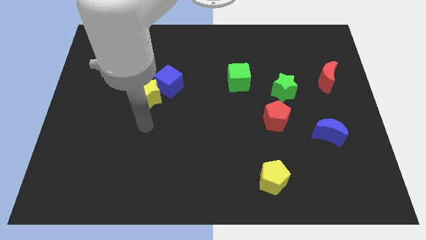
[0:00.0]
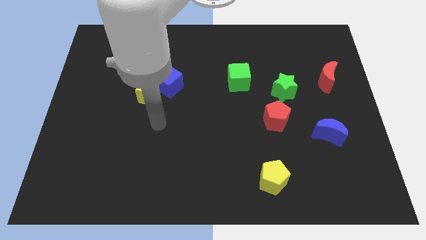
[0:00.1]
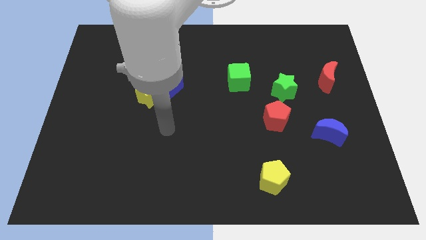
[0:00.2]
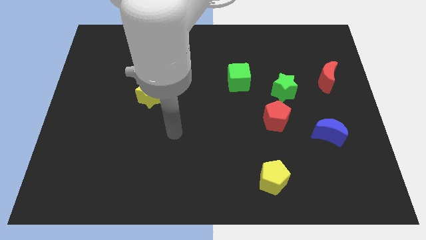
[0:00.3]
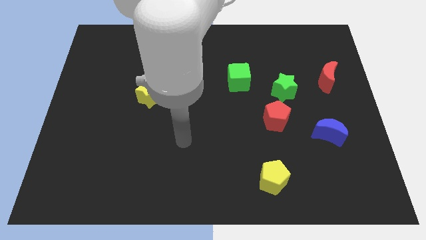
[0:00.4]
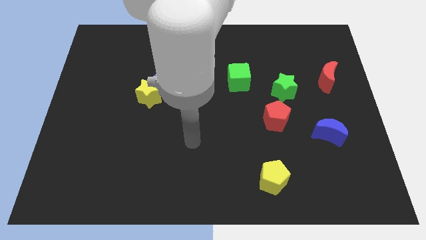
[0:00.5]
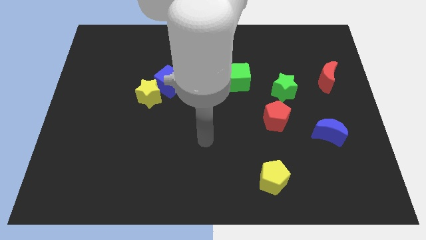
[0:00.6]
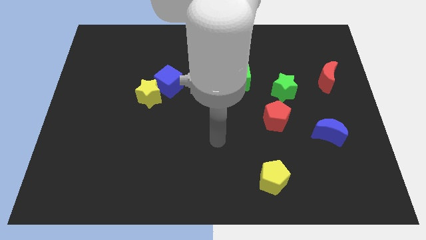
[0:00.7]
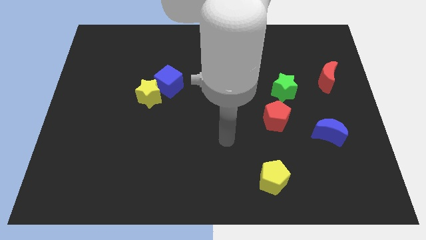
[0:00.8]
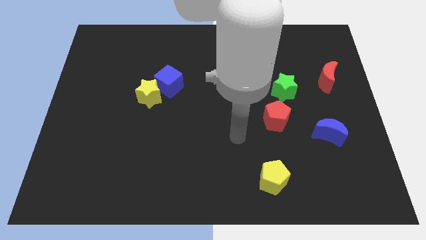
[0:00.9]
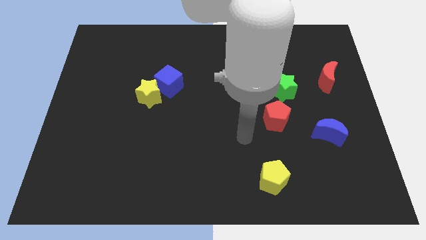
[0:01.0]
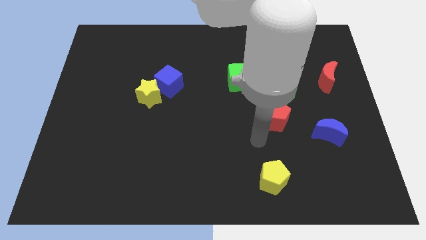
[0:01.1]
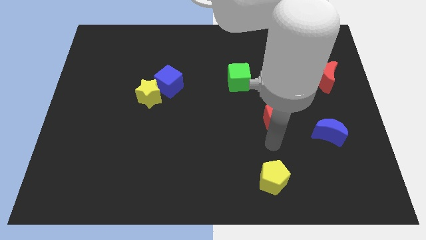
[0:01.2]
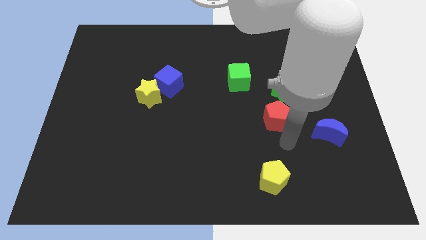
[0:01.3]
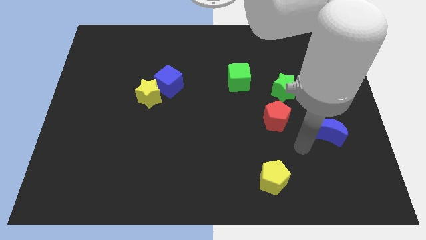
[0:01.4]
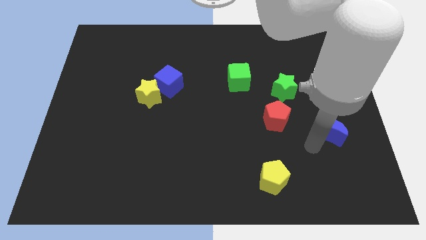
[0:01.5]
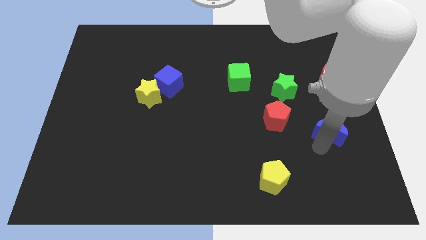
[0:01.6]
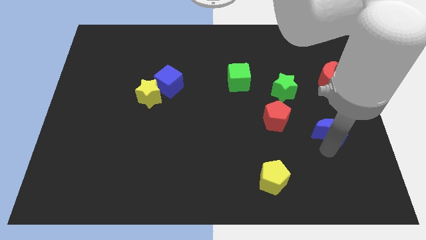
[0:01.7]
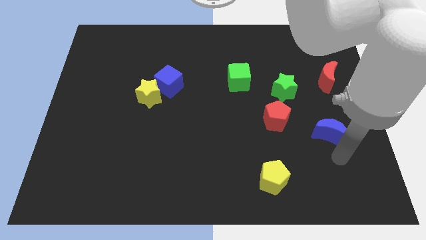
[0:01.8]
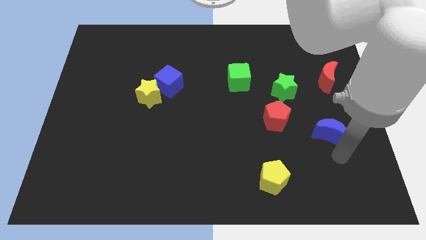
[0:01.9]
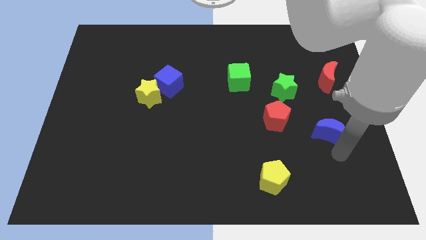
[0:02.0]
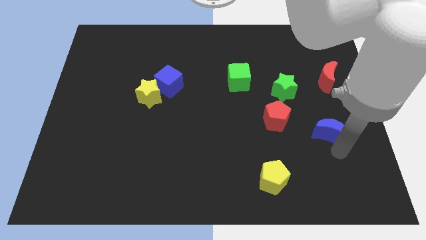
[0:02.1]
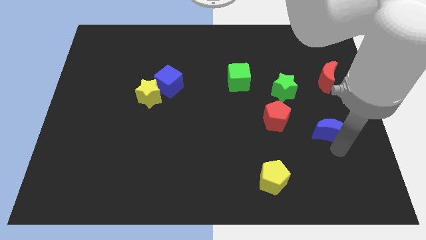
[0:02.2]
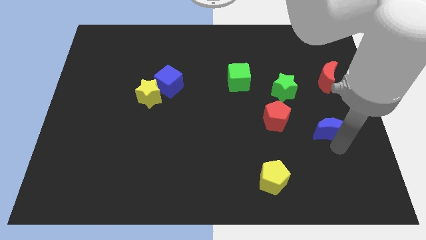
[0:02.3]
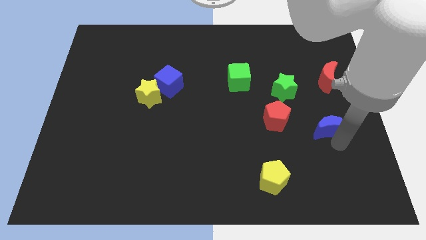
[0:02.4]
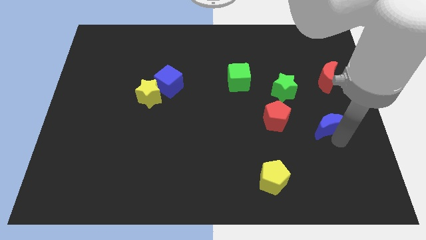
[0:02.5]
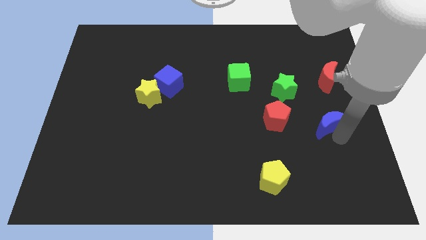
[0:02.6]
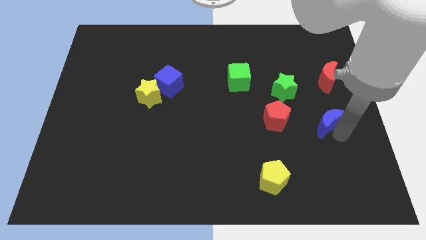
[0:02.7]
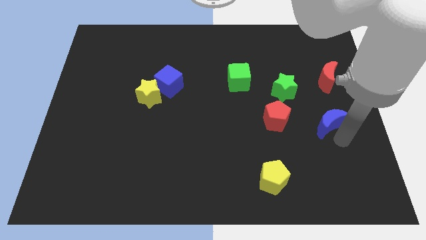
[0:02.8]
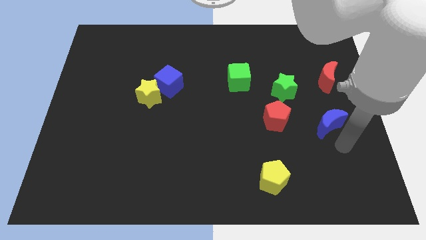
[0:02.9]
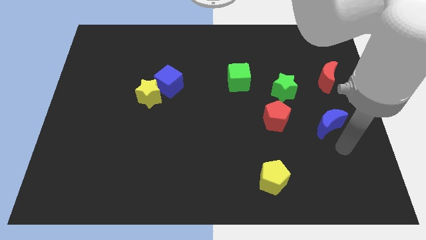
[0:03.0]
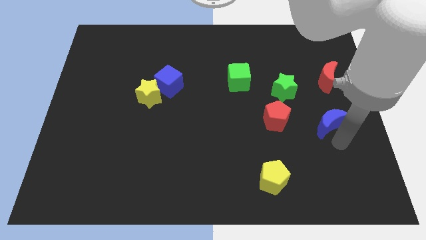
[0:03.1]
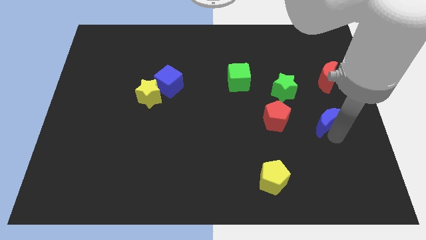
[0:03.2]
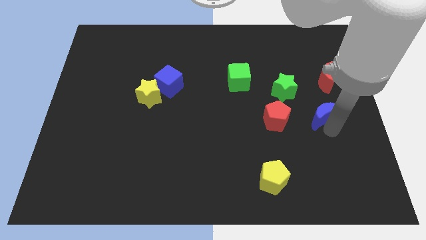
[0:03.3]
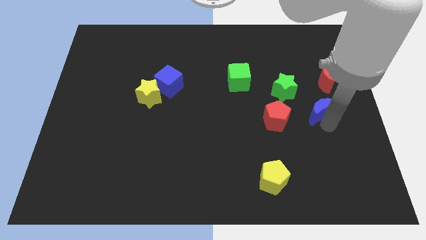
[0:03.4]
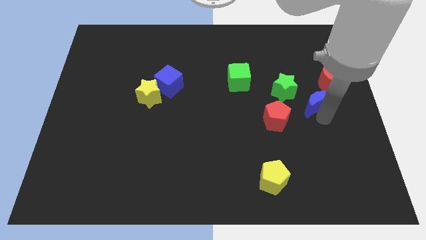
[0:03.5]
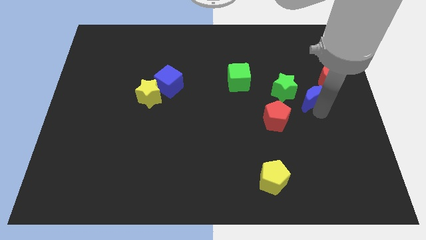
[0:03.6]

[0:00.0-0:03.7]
slide the blue moon a bit up and to the left

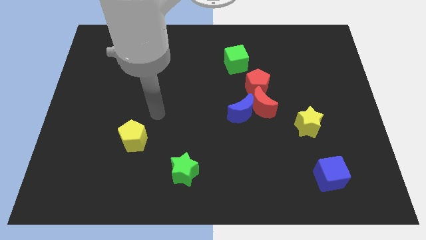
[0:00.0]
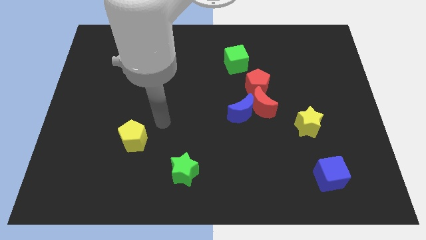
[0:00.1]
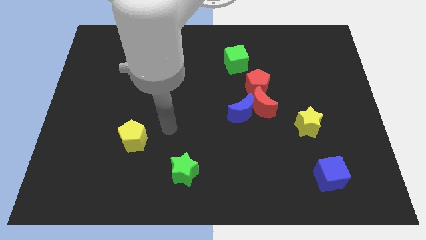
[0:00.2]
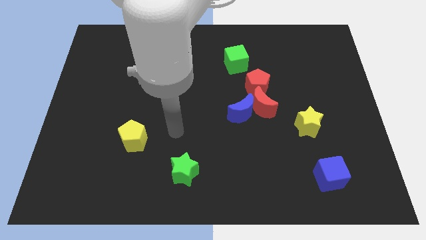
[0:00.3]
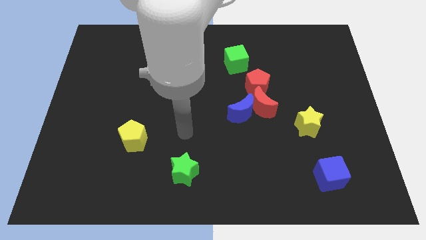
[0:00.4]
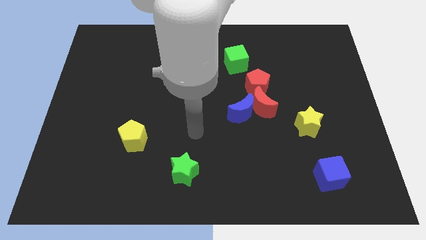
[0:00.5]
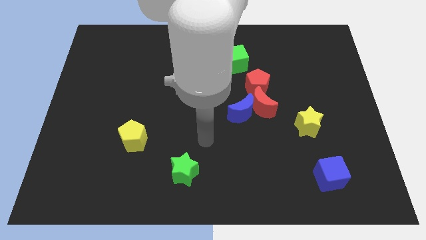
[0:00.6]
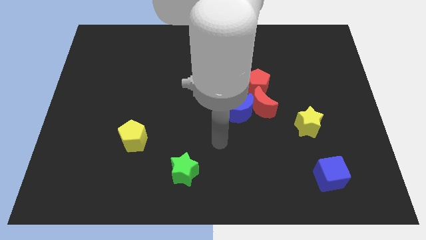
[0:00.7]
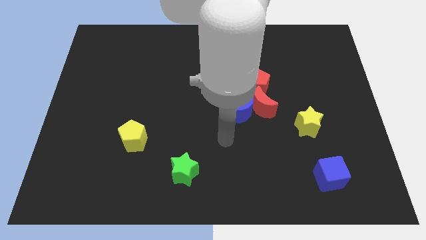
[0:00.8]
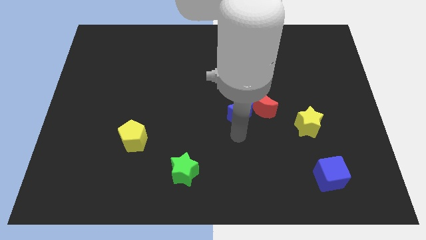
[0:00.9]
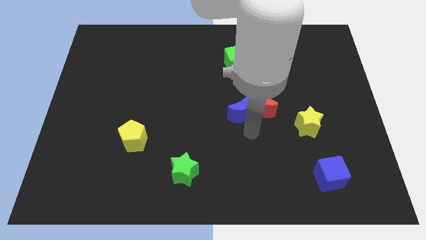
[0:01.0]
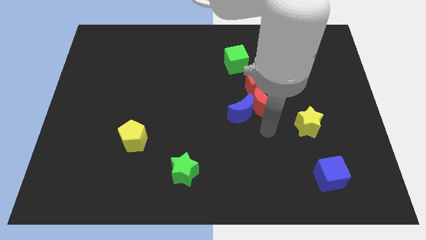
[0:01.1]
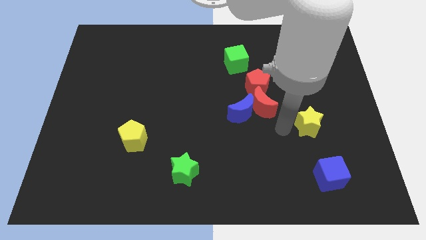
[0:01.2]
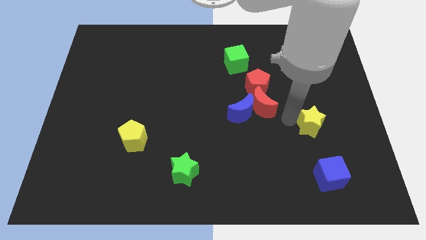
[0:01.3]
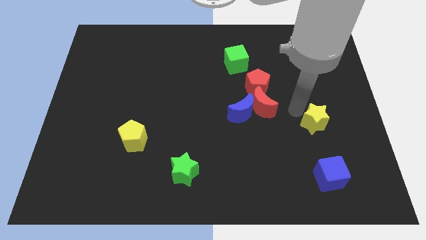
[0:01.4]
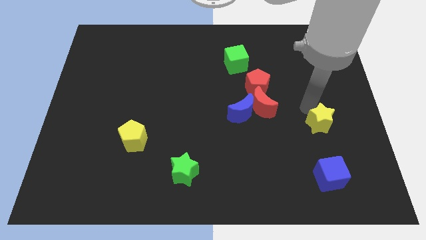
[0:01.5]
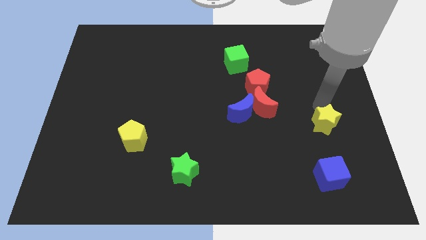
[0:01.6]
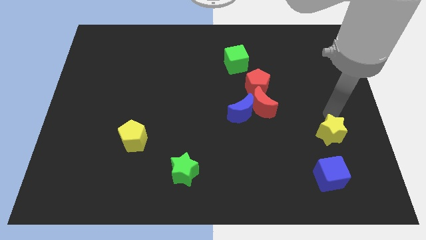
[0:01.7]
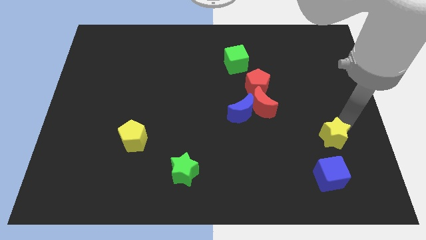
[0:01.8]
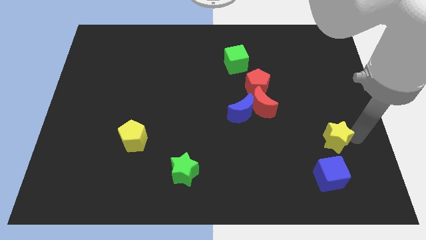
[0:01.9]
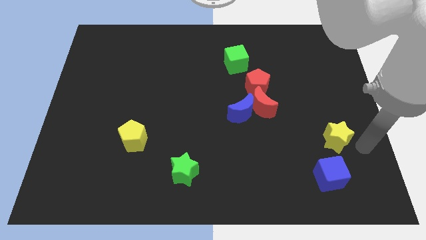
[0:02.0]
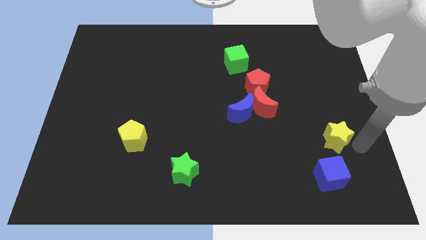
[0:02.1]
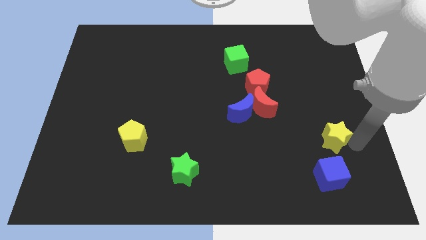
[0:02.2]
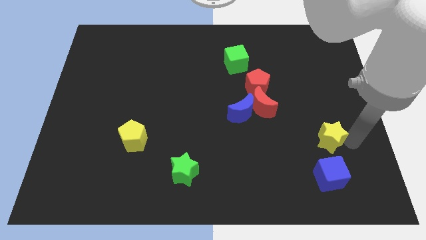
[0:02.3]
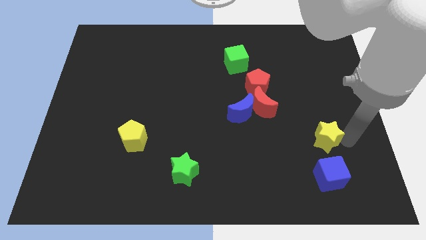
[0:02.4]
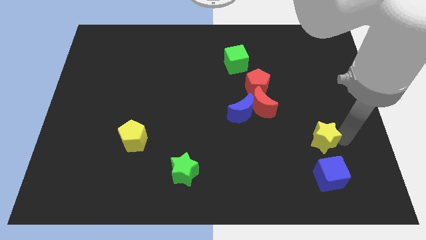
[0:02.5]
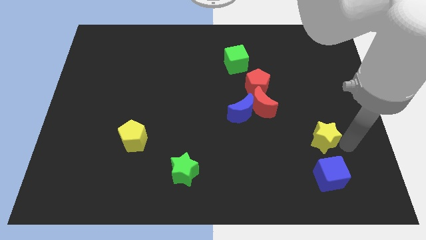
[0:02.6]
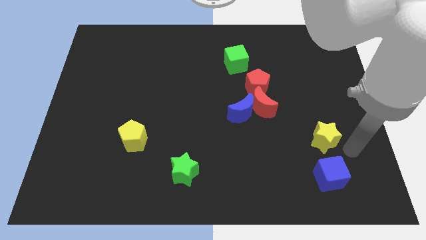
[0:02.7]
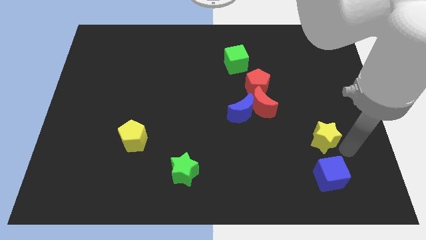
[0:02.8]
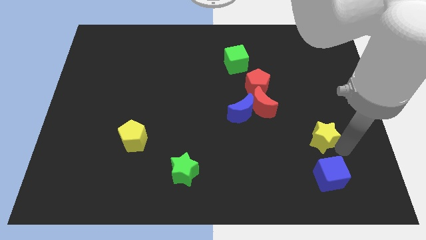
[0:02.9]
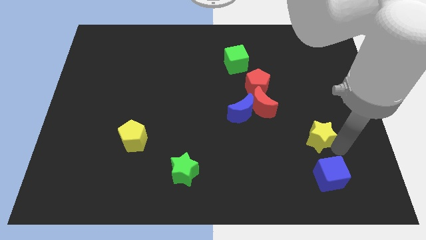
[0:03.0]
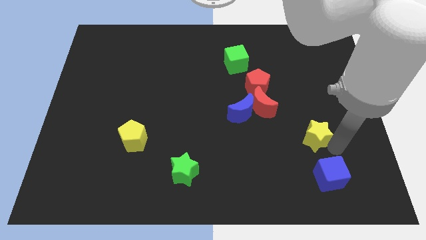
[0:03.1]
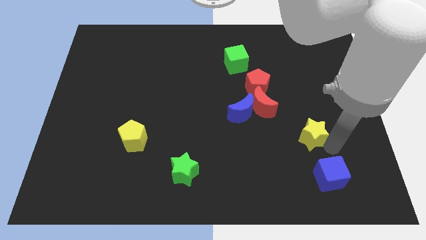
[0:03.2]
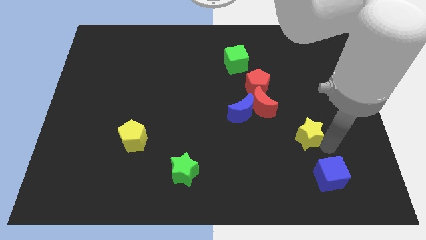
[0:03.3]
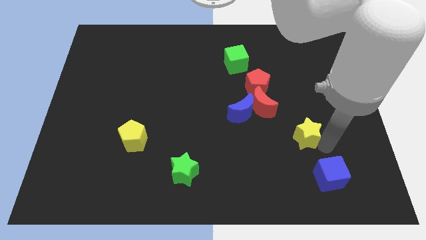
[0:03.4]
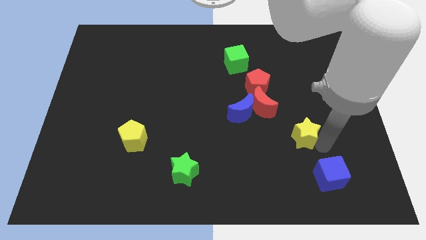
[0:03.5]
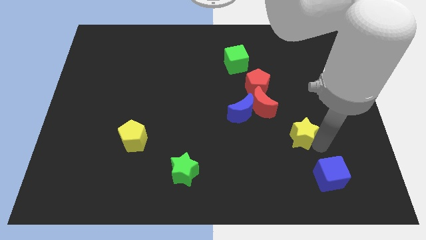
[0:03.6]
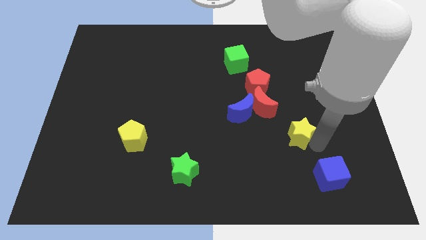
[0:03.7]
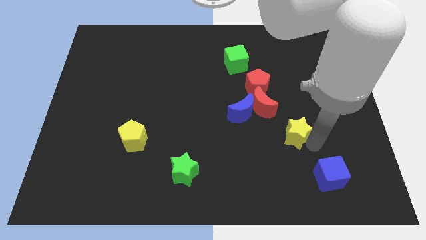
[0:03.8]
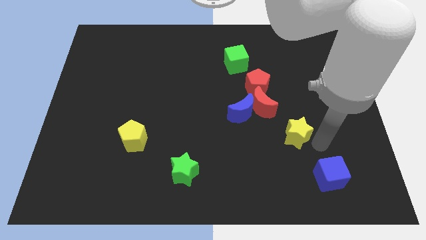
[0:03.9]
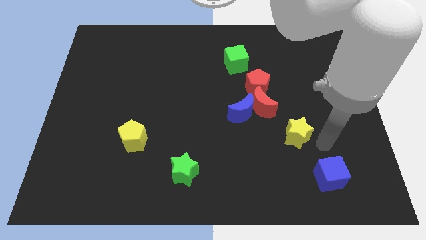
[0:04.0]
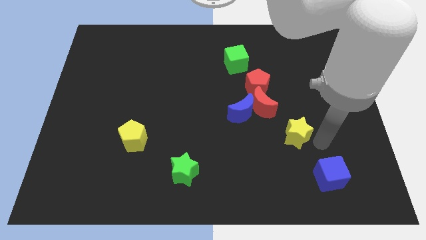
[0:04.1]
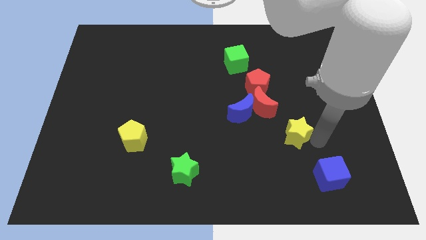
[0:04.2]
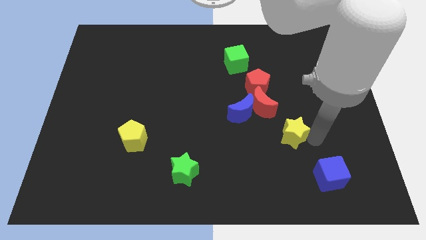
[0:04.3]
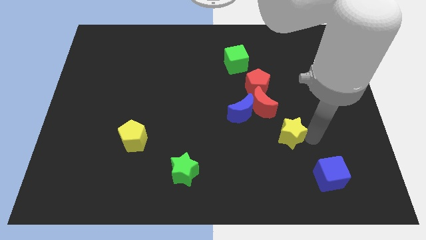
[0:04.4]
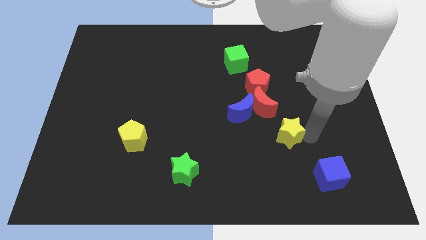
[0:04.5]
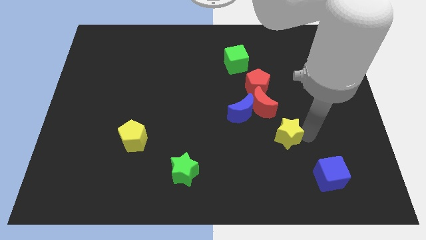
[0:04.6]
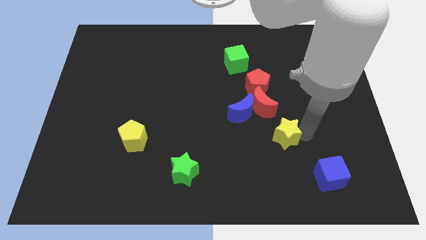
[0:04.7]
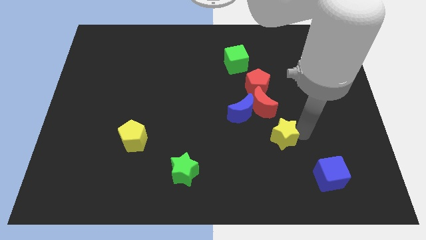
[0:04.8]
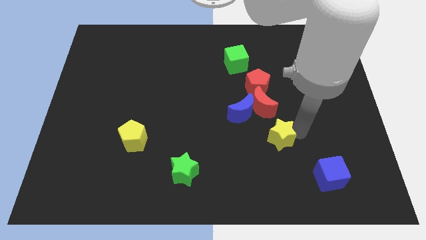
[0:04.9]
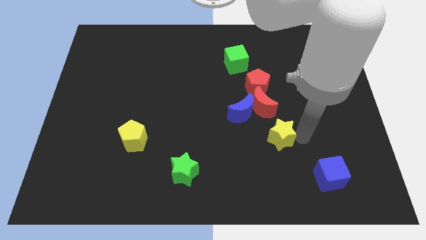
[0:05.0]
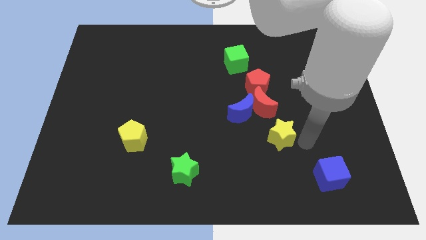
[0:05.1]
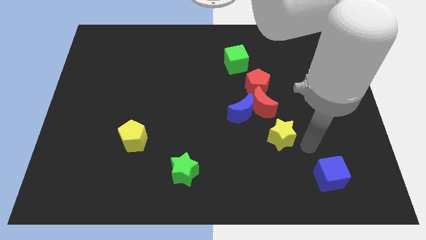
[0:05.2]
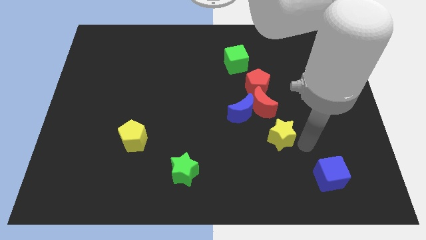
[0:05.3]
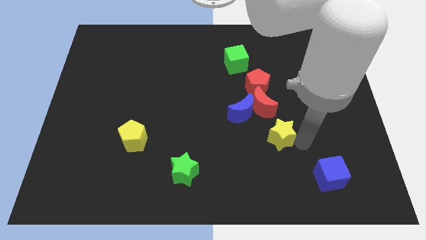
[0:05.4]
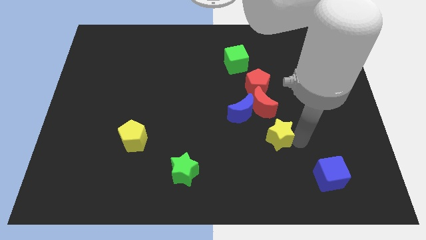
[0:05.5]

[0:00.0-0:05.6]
slightly move the yellow star left
